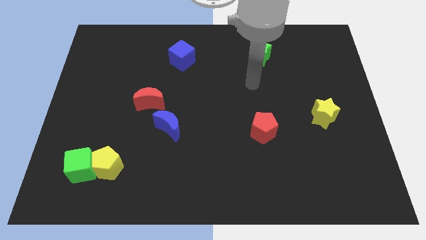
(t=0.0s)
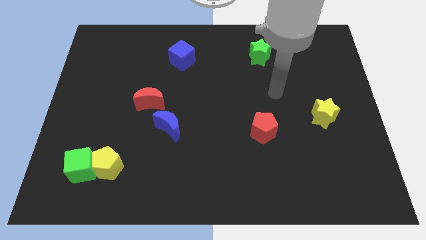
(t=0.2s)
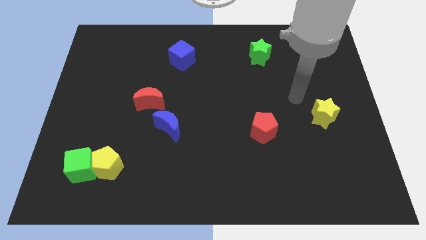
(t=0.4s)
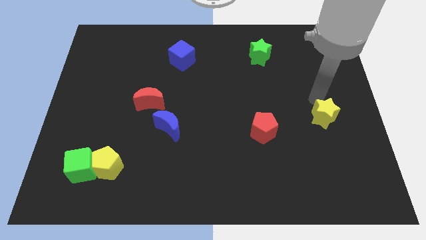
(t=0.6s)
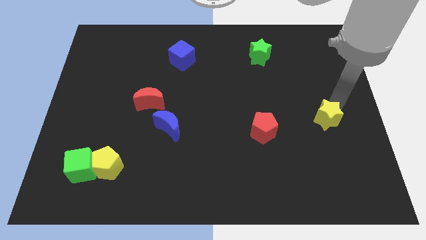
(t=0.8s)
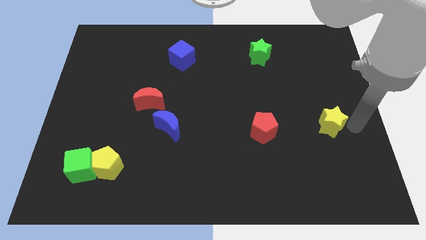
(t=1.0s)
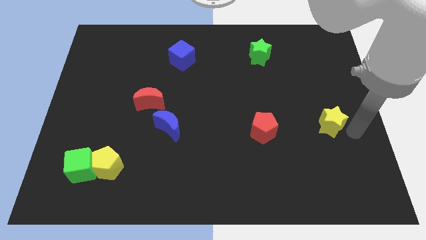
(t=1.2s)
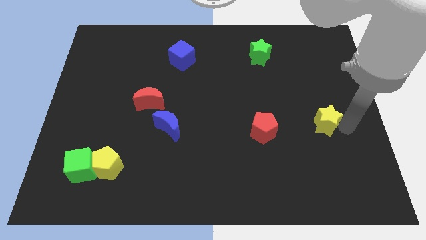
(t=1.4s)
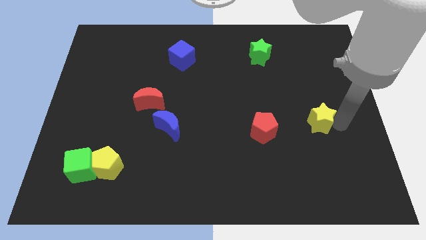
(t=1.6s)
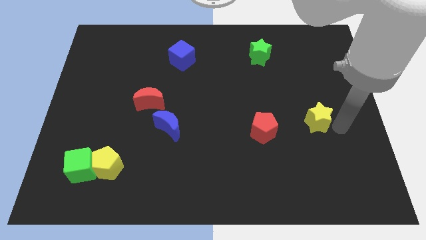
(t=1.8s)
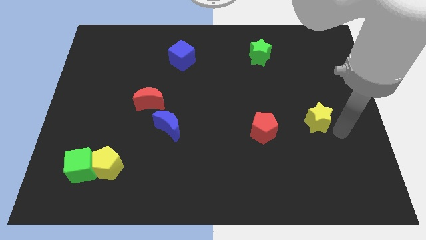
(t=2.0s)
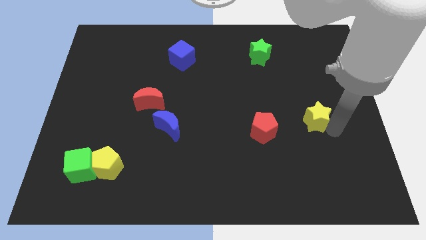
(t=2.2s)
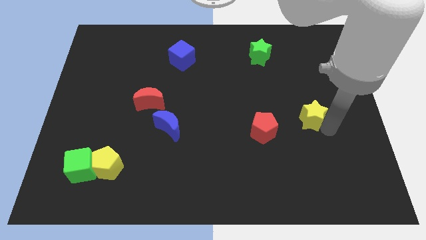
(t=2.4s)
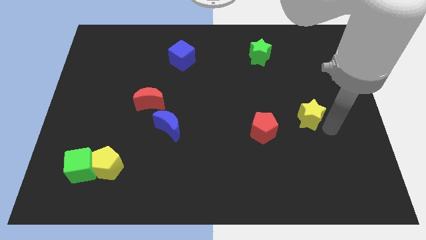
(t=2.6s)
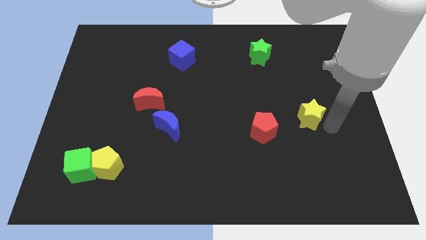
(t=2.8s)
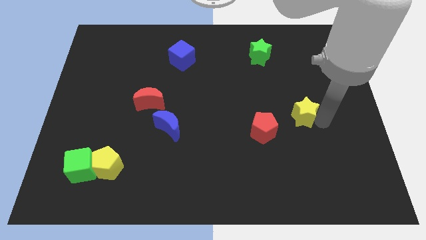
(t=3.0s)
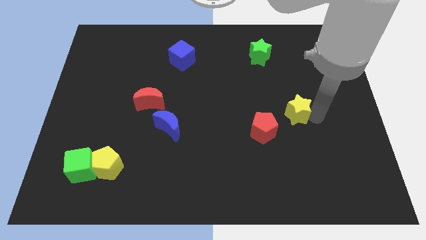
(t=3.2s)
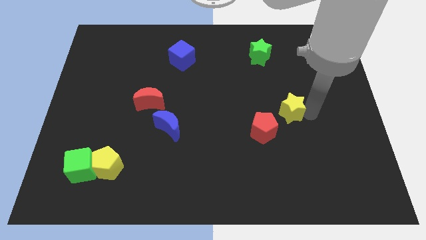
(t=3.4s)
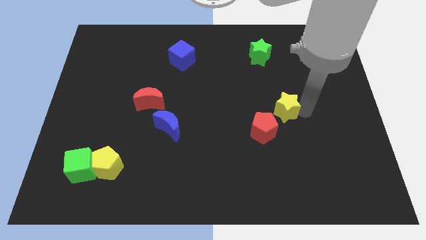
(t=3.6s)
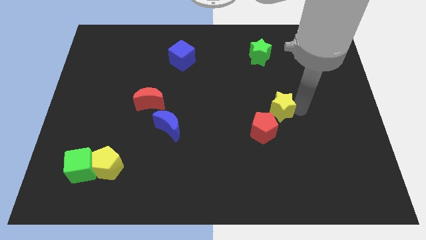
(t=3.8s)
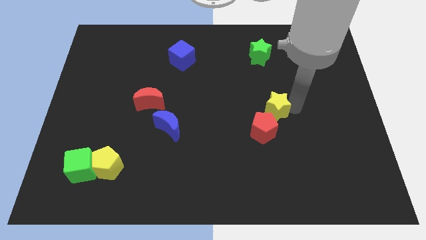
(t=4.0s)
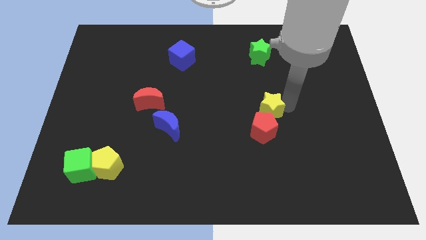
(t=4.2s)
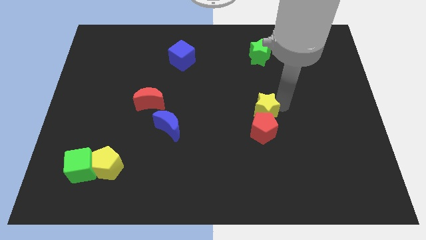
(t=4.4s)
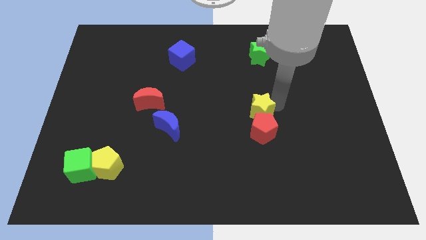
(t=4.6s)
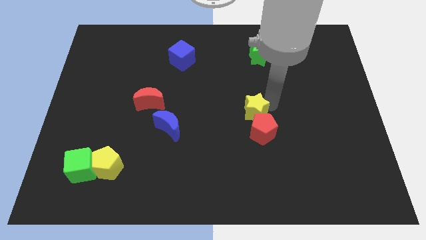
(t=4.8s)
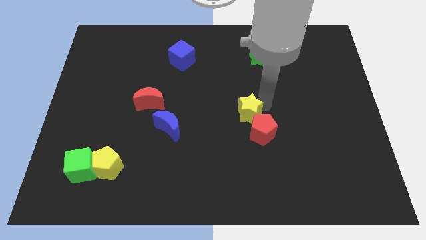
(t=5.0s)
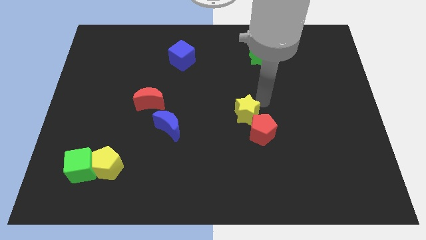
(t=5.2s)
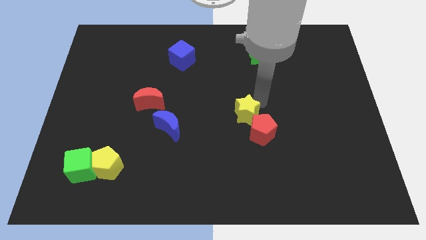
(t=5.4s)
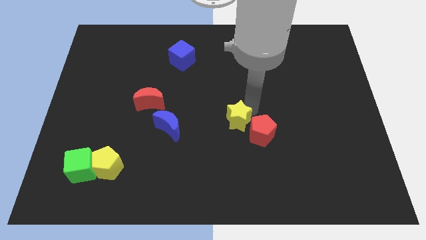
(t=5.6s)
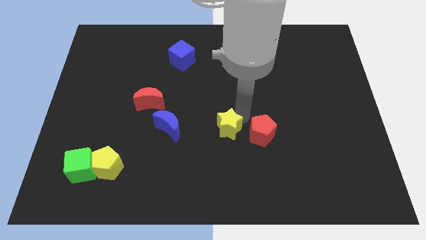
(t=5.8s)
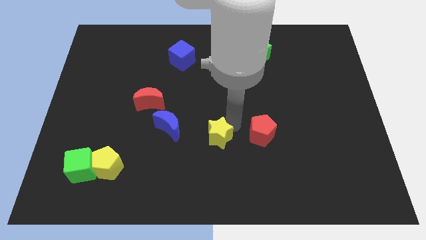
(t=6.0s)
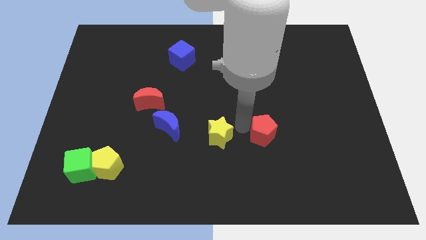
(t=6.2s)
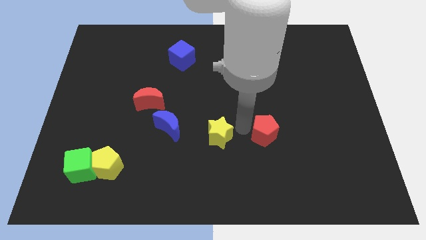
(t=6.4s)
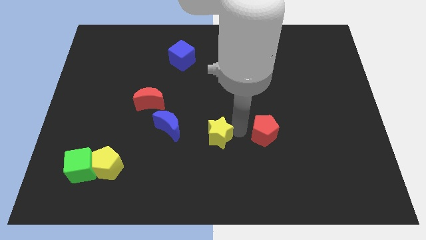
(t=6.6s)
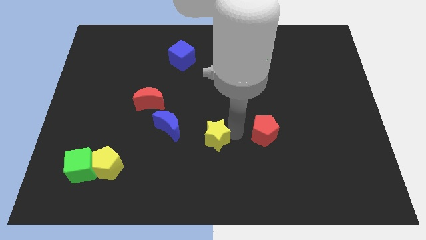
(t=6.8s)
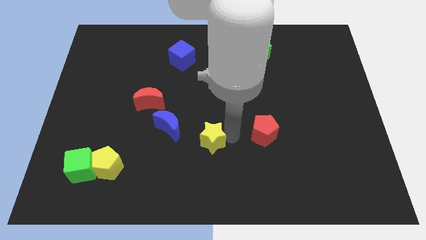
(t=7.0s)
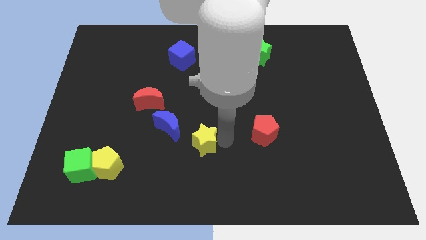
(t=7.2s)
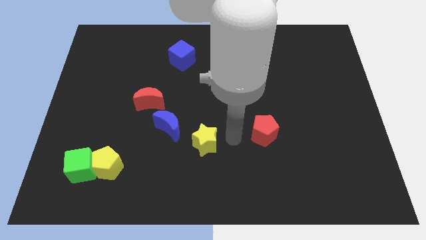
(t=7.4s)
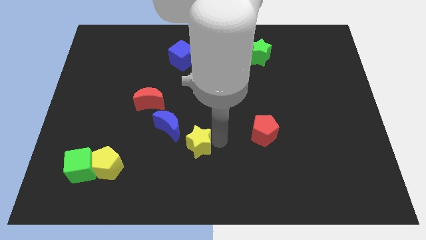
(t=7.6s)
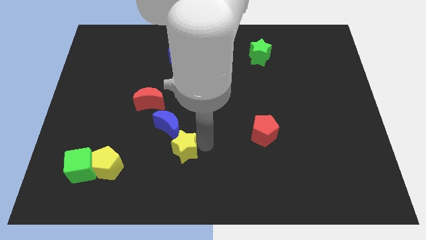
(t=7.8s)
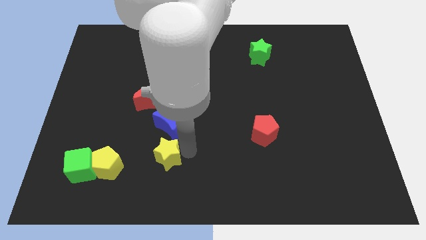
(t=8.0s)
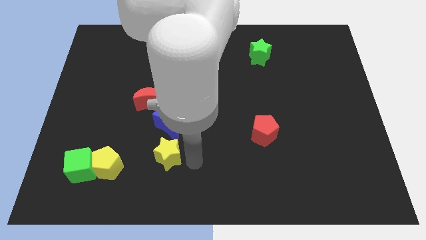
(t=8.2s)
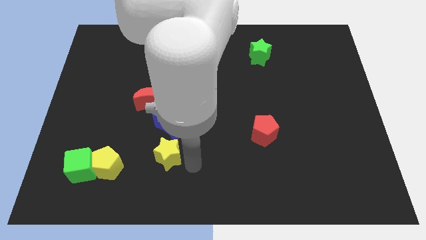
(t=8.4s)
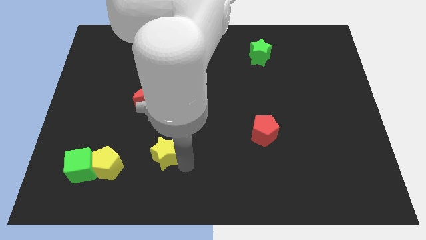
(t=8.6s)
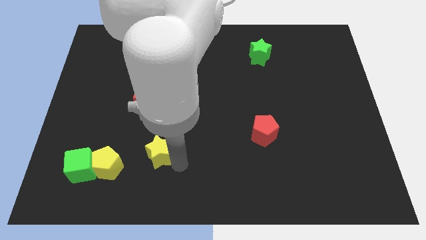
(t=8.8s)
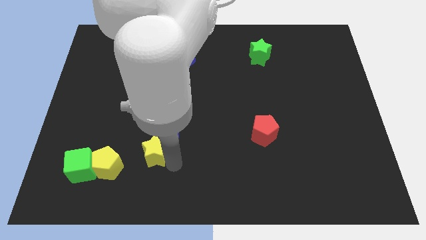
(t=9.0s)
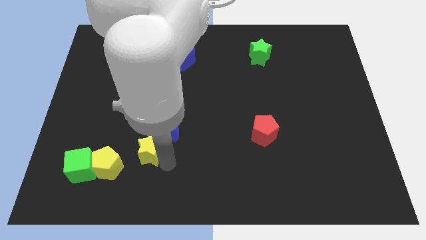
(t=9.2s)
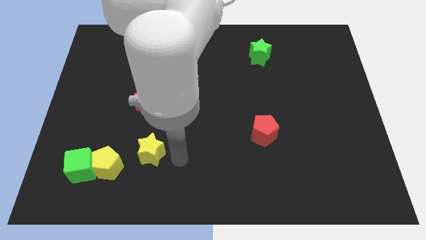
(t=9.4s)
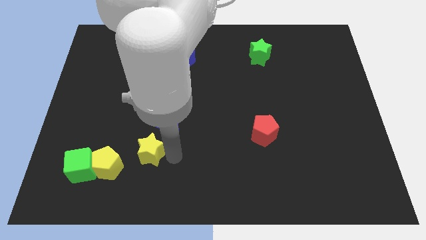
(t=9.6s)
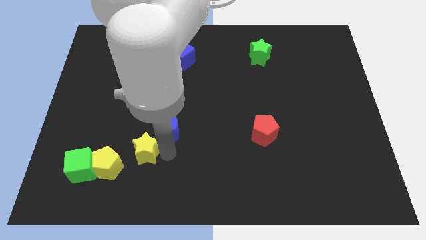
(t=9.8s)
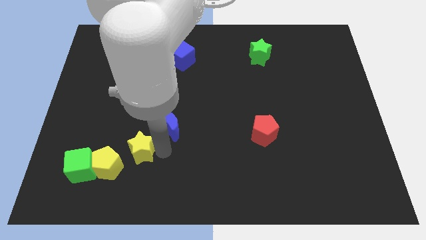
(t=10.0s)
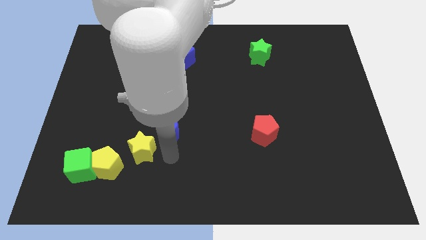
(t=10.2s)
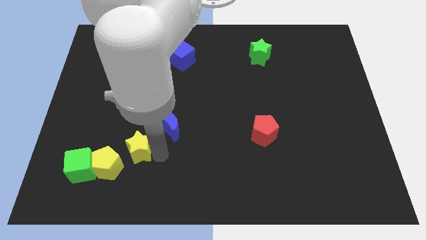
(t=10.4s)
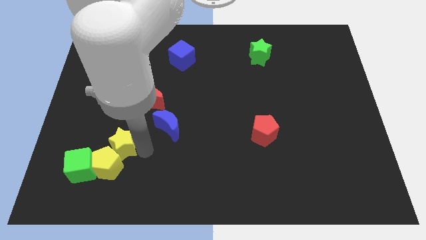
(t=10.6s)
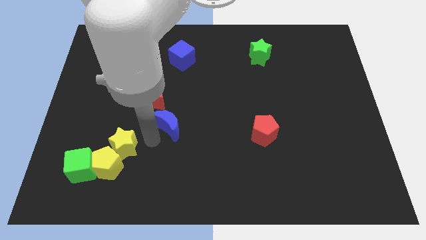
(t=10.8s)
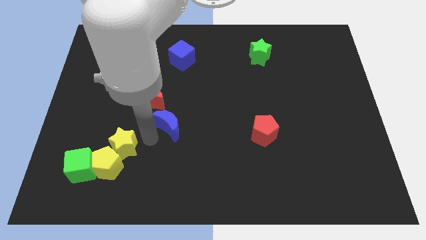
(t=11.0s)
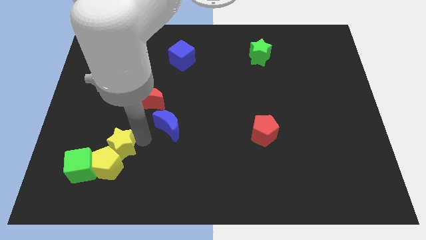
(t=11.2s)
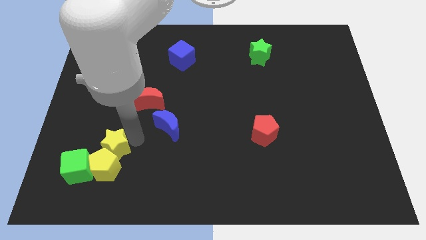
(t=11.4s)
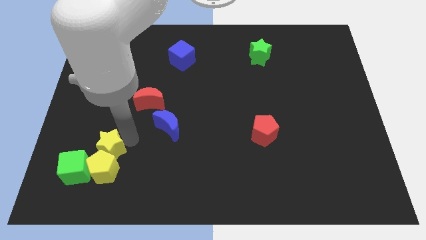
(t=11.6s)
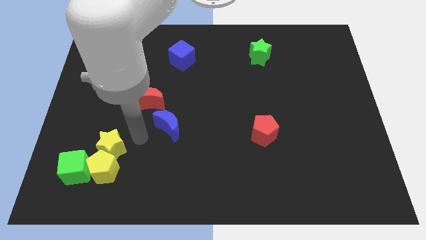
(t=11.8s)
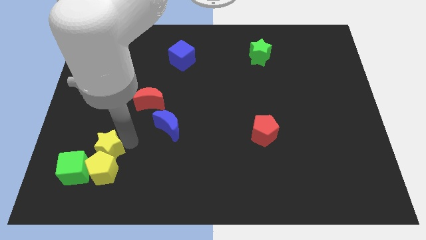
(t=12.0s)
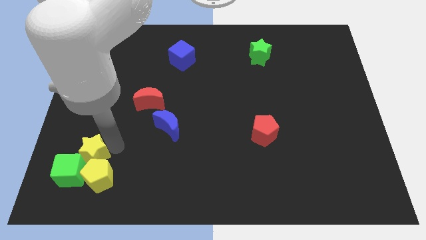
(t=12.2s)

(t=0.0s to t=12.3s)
move the yellow star to the green cube
